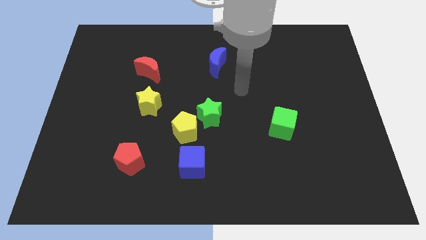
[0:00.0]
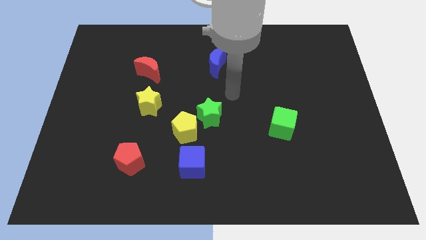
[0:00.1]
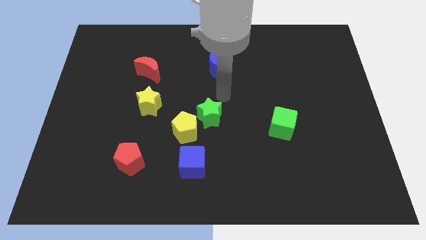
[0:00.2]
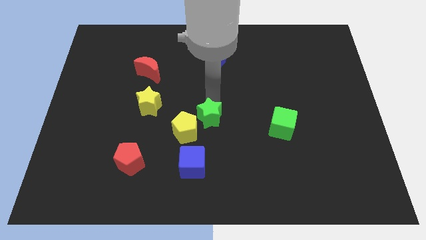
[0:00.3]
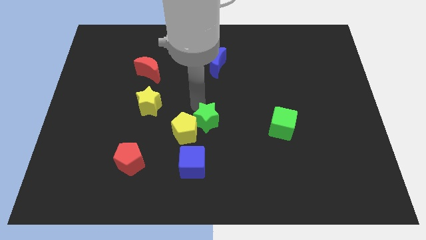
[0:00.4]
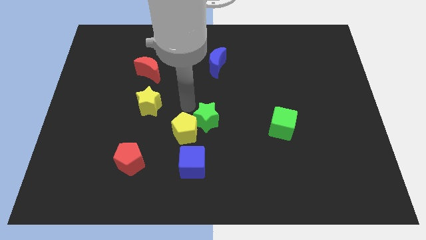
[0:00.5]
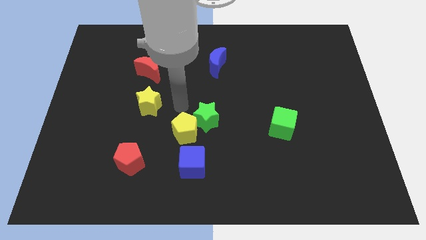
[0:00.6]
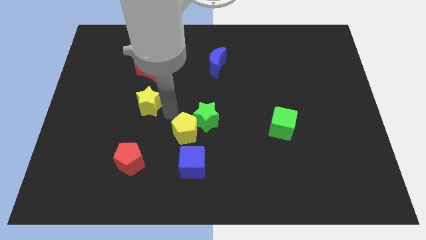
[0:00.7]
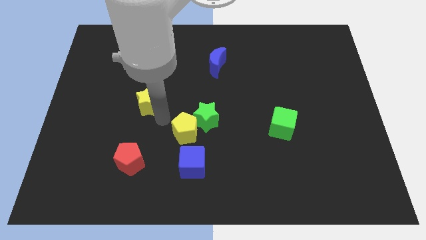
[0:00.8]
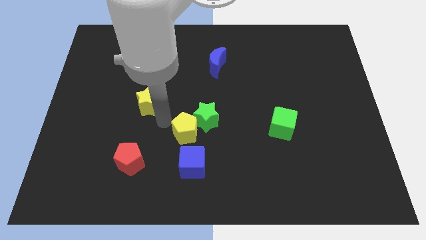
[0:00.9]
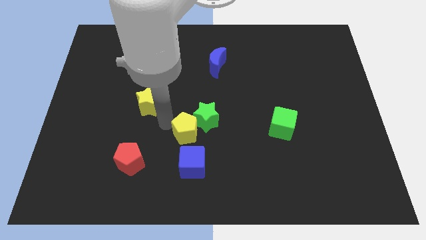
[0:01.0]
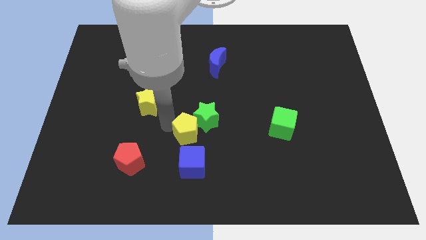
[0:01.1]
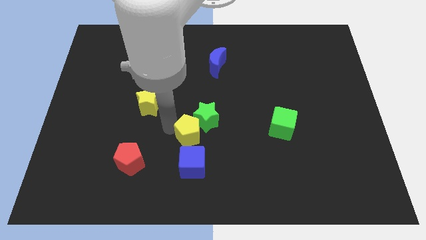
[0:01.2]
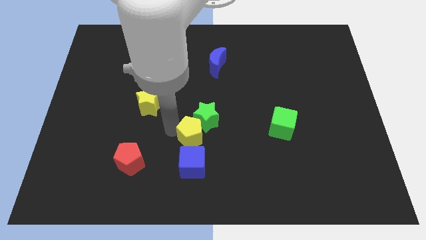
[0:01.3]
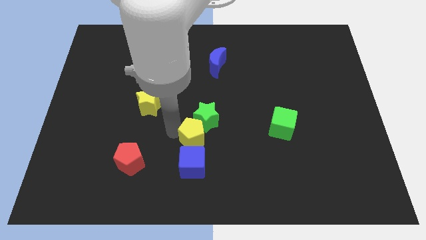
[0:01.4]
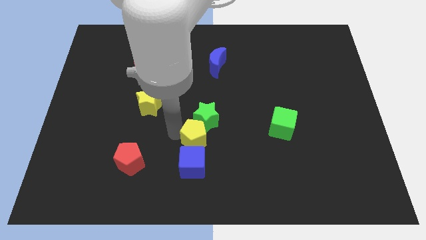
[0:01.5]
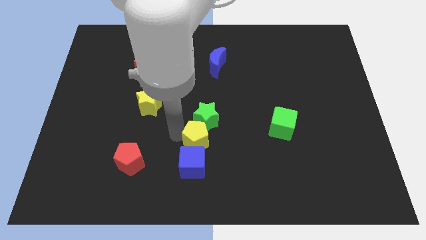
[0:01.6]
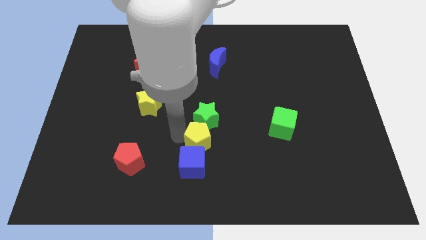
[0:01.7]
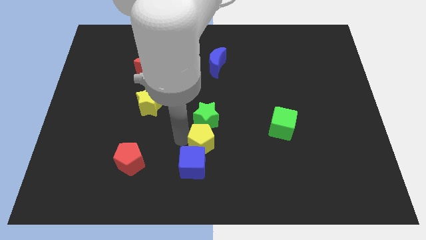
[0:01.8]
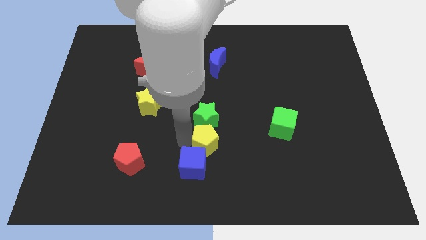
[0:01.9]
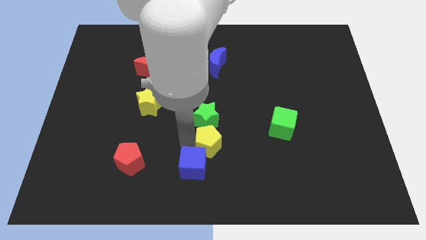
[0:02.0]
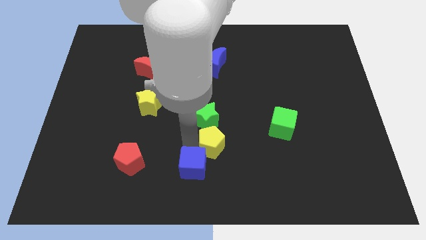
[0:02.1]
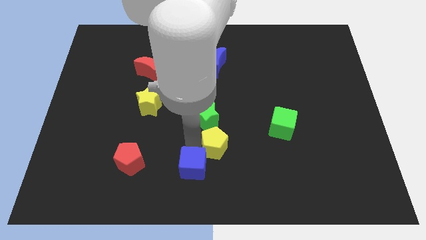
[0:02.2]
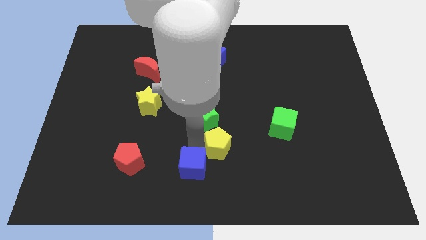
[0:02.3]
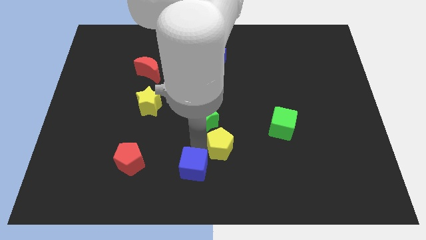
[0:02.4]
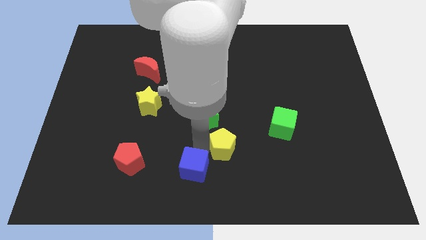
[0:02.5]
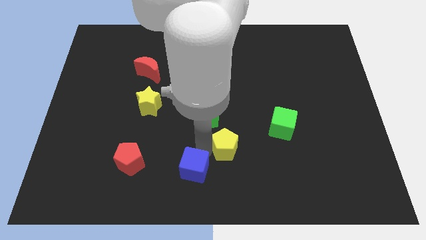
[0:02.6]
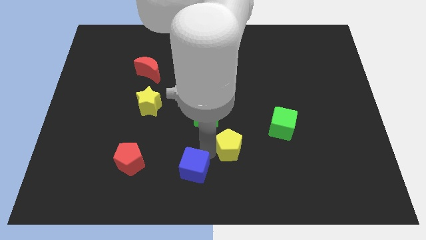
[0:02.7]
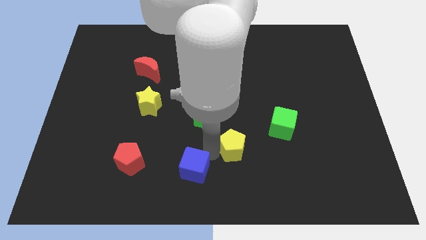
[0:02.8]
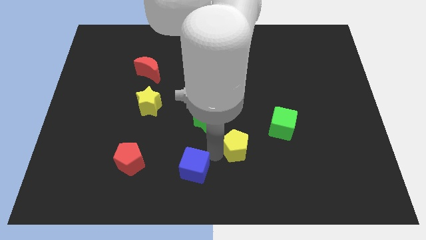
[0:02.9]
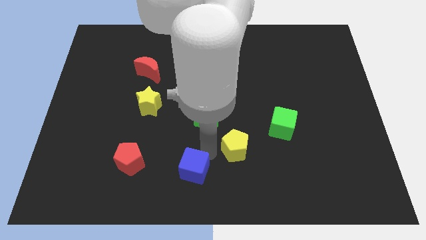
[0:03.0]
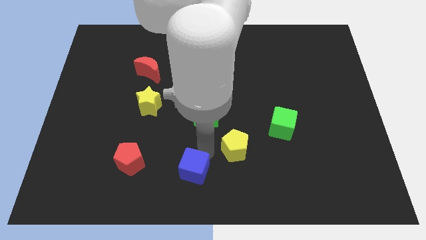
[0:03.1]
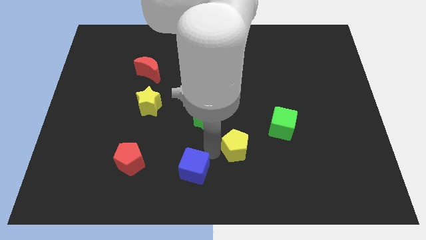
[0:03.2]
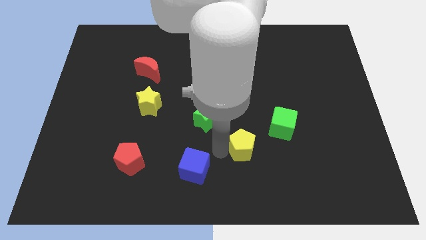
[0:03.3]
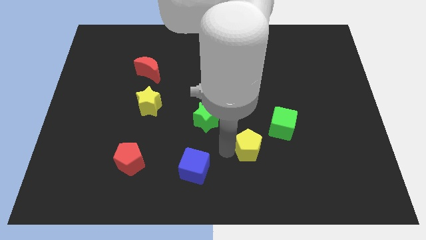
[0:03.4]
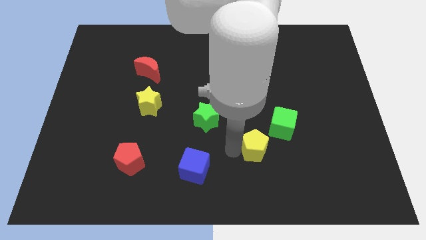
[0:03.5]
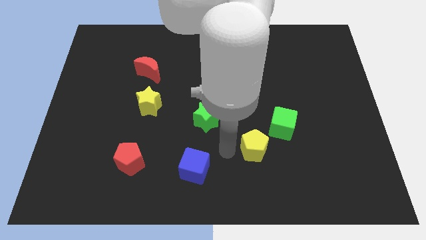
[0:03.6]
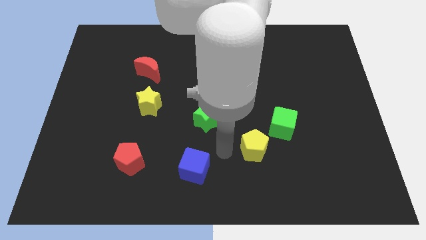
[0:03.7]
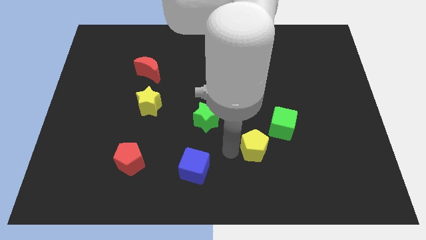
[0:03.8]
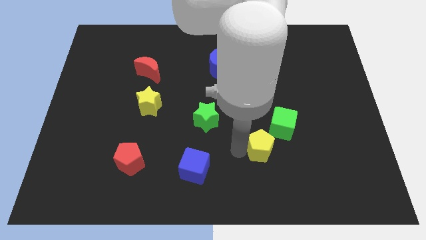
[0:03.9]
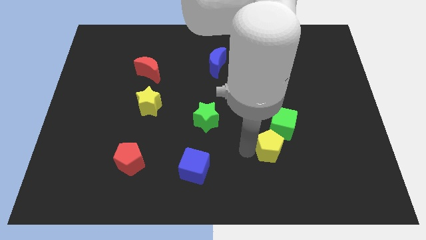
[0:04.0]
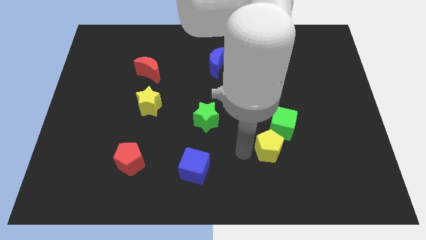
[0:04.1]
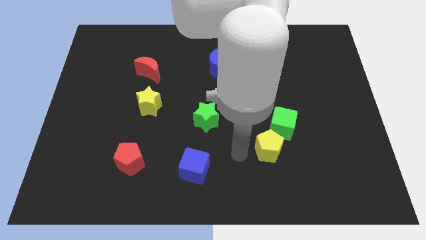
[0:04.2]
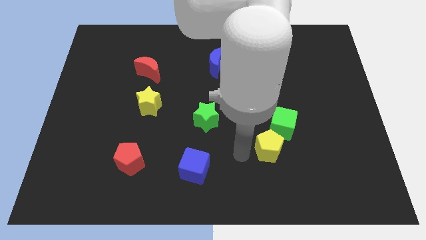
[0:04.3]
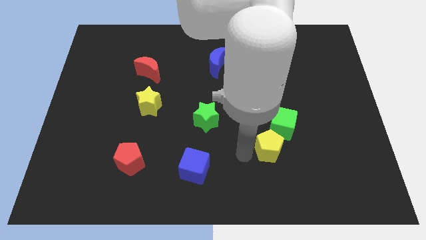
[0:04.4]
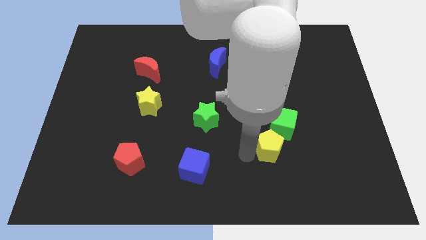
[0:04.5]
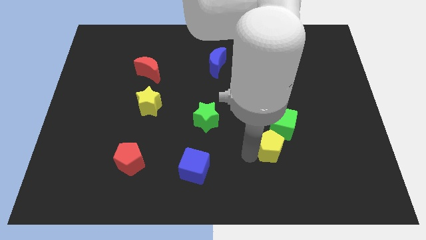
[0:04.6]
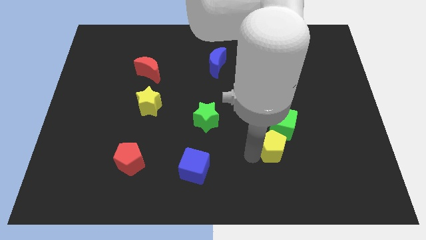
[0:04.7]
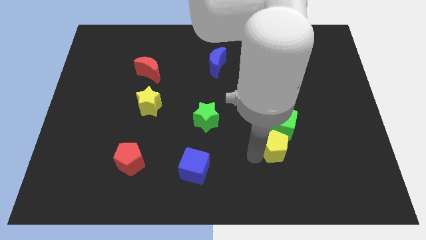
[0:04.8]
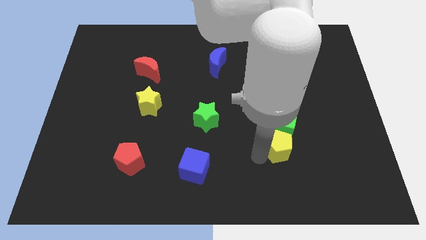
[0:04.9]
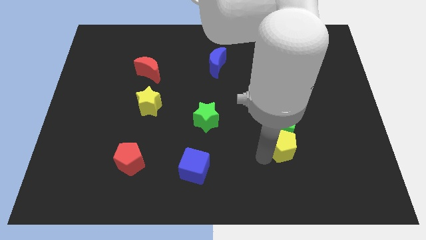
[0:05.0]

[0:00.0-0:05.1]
push the yellow pentagon to the right

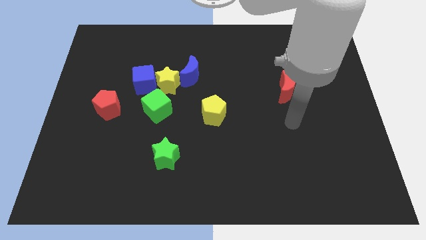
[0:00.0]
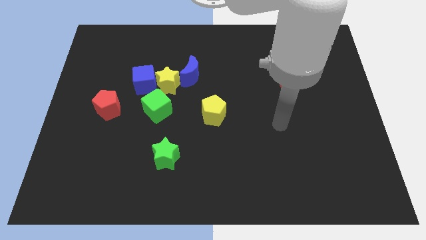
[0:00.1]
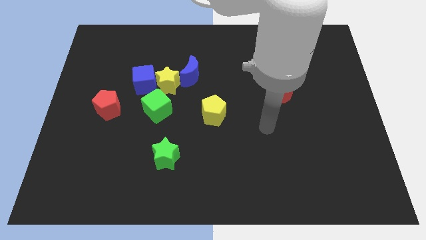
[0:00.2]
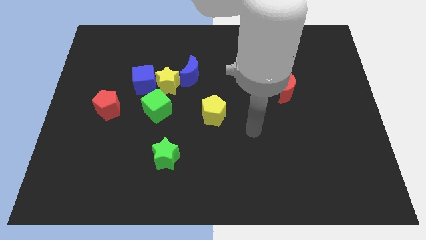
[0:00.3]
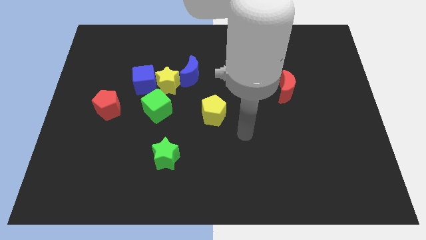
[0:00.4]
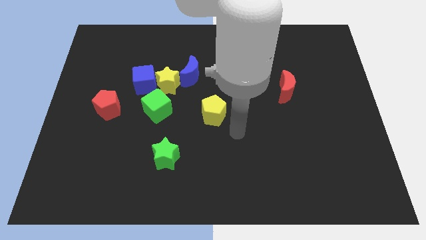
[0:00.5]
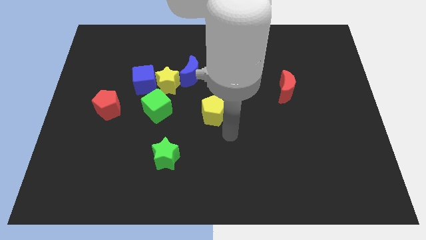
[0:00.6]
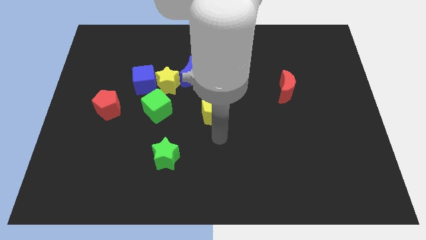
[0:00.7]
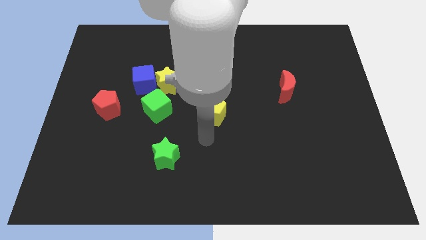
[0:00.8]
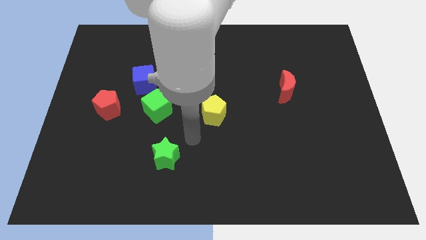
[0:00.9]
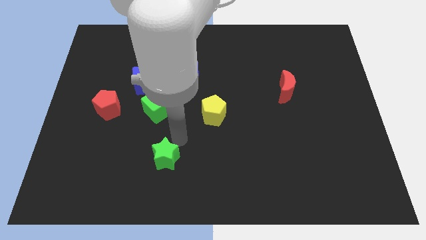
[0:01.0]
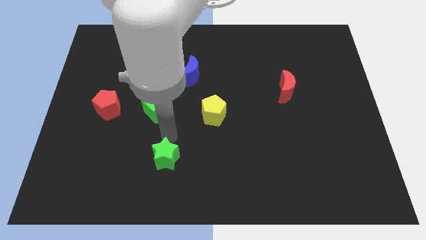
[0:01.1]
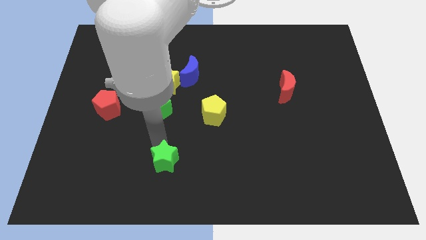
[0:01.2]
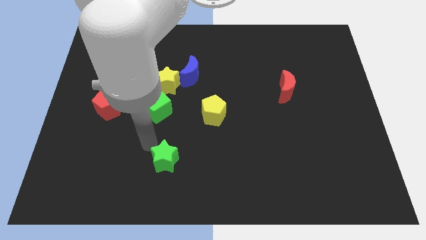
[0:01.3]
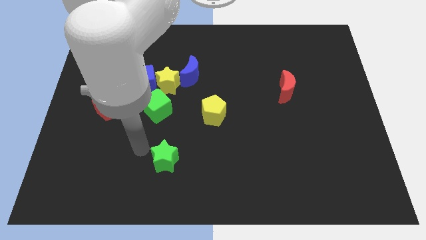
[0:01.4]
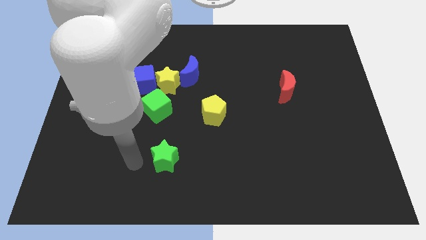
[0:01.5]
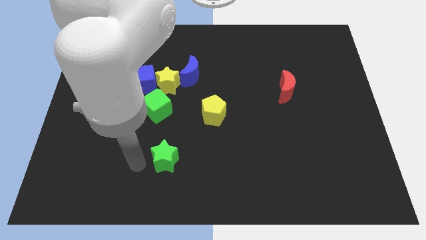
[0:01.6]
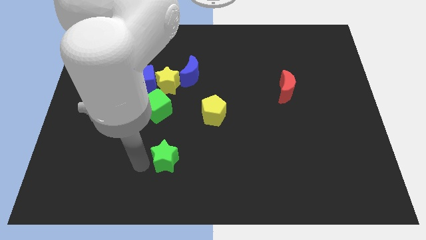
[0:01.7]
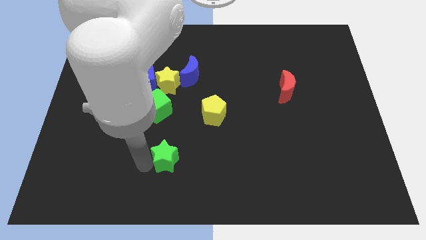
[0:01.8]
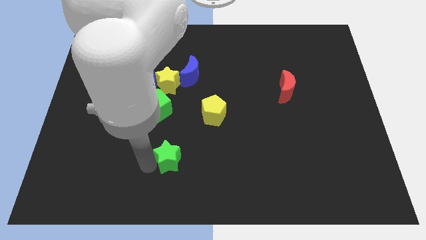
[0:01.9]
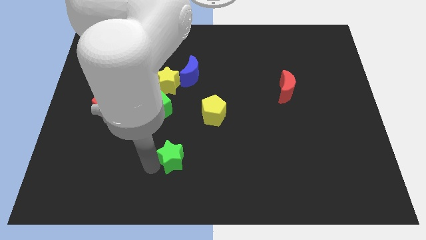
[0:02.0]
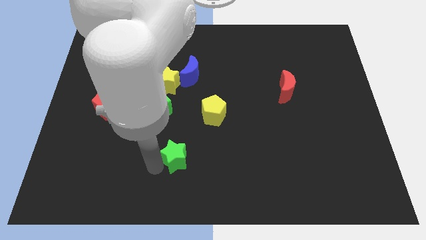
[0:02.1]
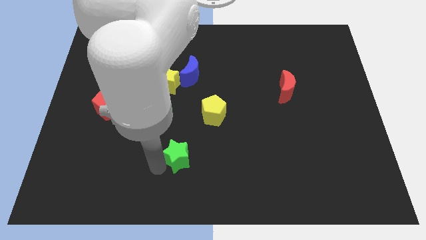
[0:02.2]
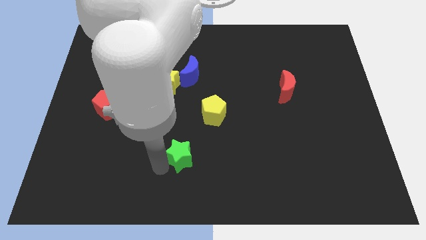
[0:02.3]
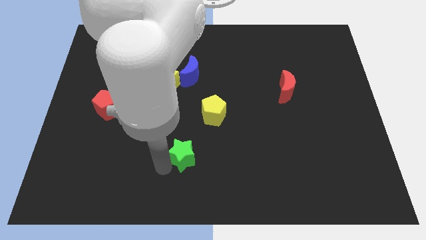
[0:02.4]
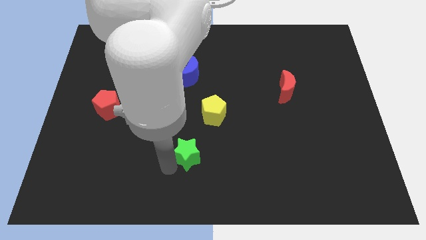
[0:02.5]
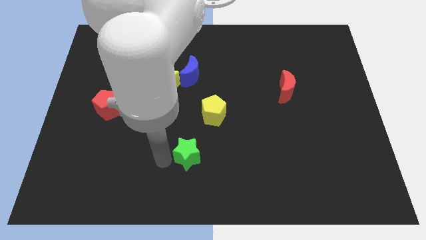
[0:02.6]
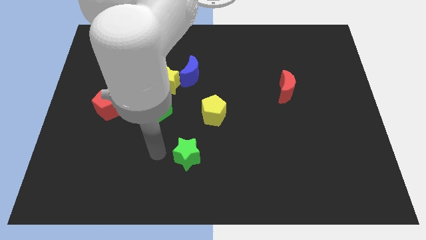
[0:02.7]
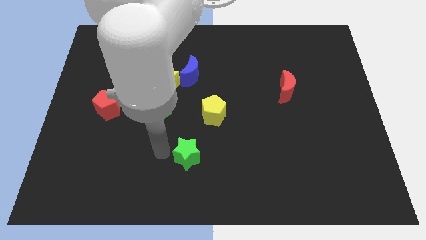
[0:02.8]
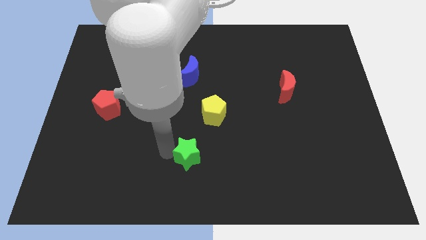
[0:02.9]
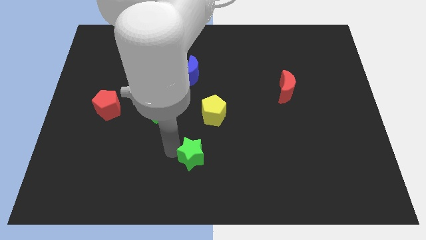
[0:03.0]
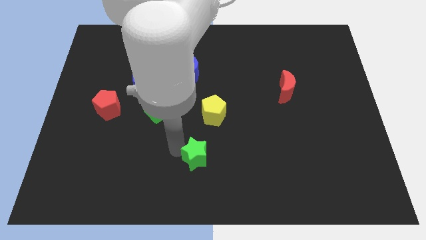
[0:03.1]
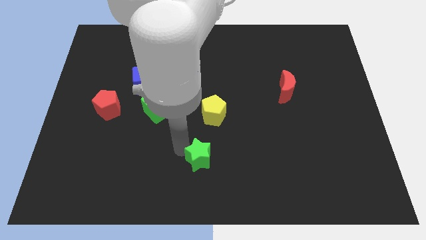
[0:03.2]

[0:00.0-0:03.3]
push the green star right somewhat
